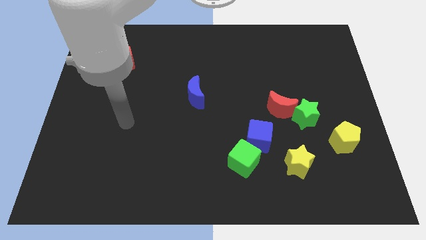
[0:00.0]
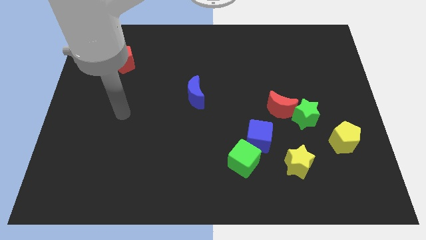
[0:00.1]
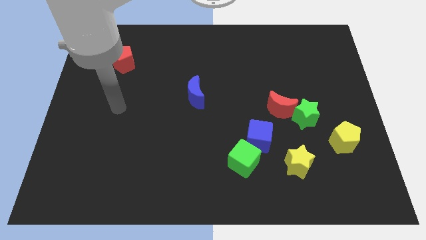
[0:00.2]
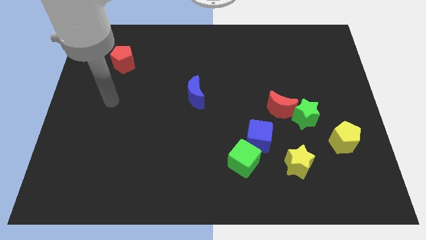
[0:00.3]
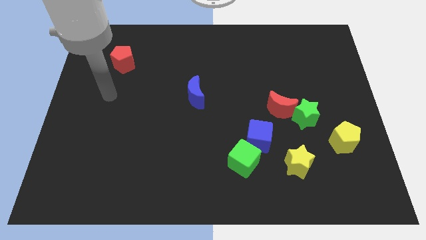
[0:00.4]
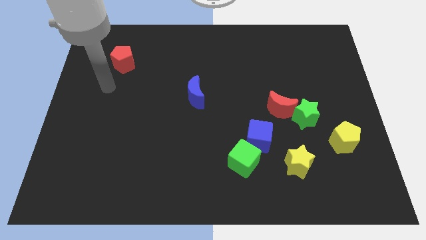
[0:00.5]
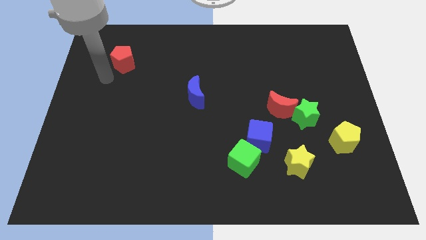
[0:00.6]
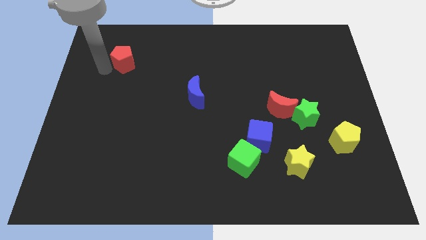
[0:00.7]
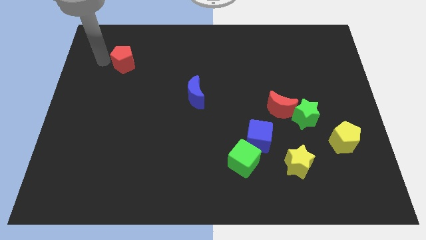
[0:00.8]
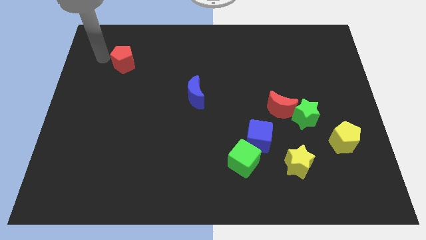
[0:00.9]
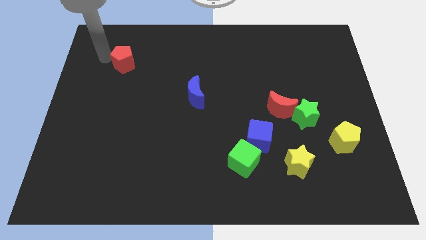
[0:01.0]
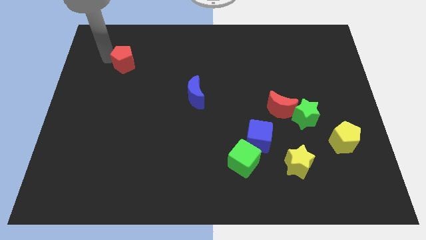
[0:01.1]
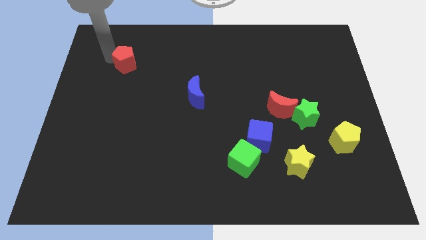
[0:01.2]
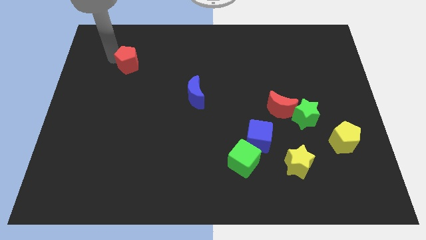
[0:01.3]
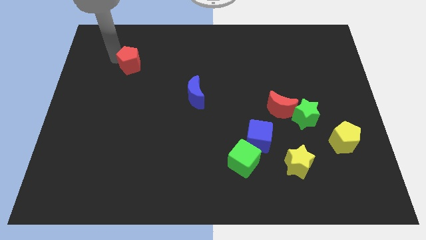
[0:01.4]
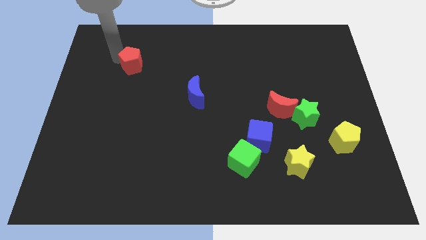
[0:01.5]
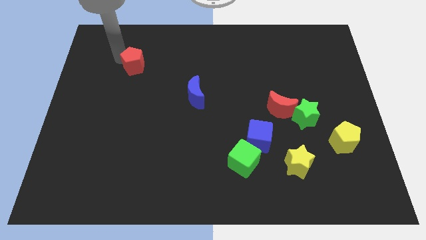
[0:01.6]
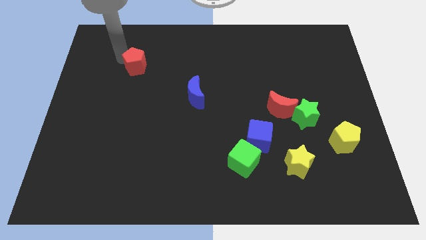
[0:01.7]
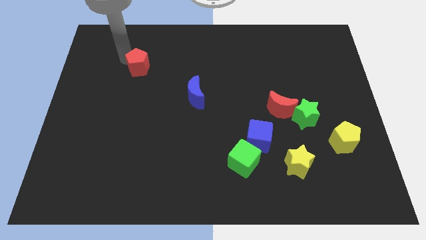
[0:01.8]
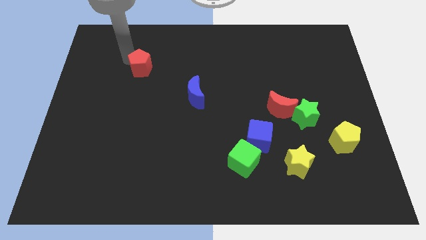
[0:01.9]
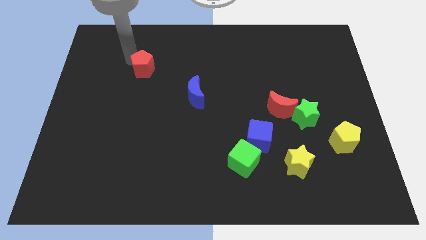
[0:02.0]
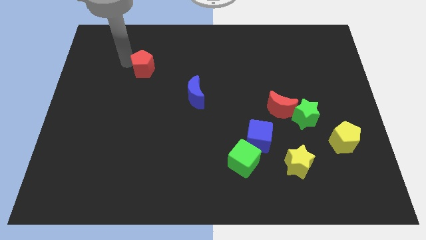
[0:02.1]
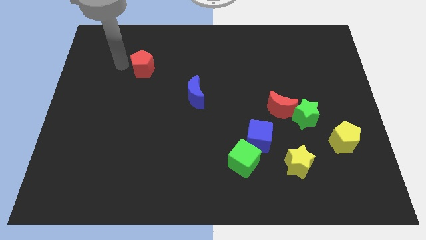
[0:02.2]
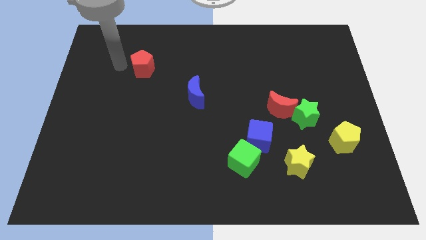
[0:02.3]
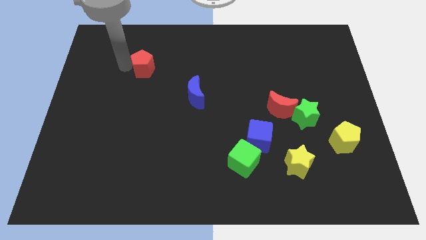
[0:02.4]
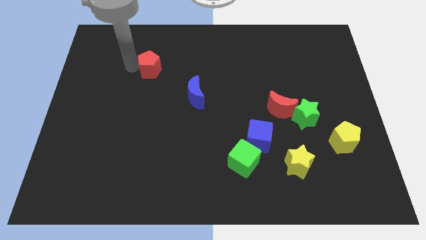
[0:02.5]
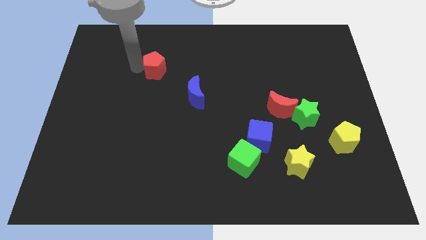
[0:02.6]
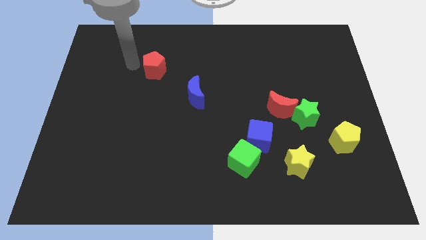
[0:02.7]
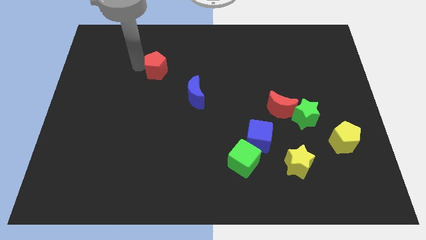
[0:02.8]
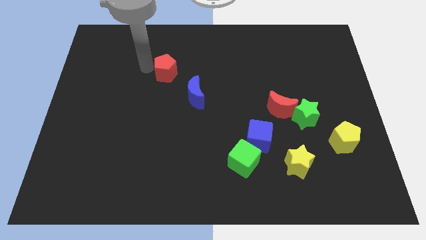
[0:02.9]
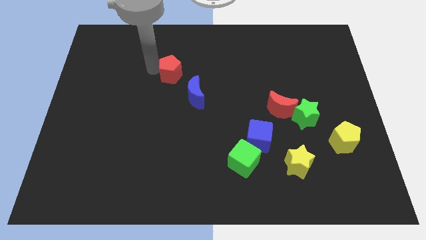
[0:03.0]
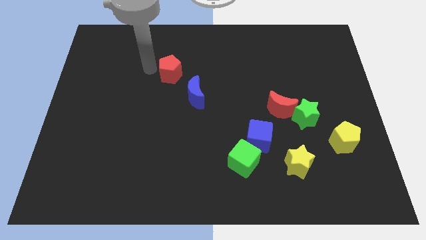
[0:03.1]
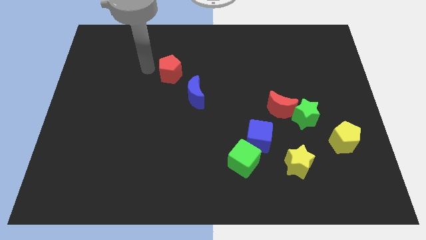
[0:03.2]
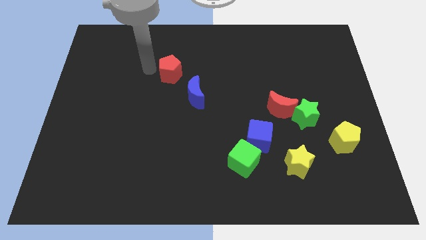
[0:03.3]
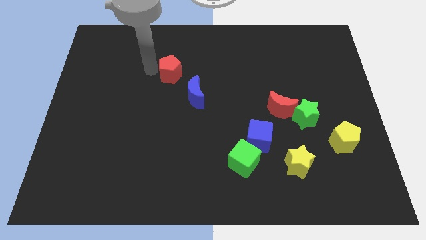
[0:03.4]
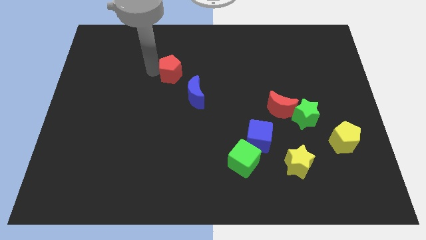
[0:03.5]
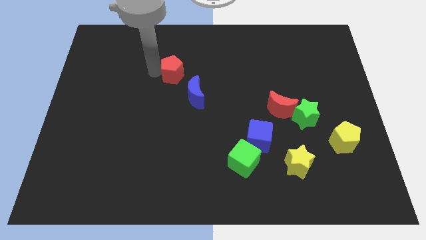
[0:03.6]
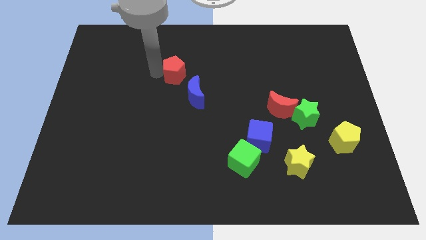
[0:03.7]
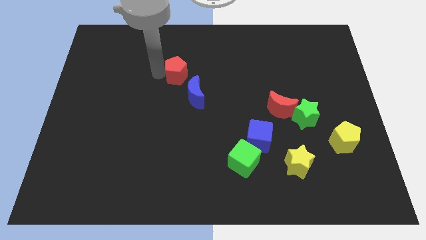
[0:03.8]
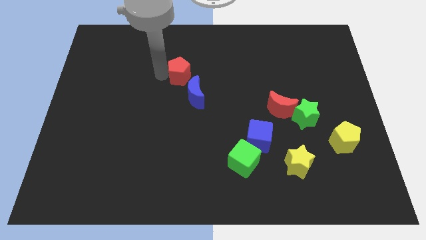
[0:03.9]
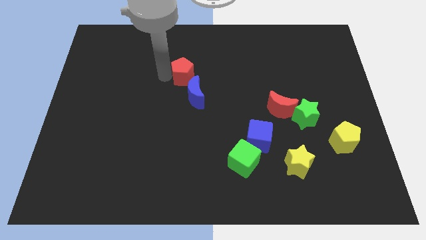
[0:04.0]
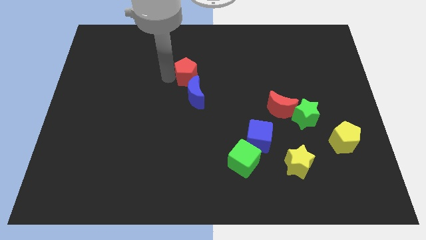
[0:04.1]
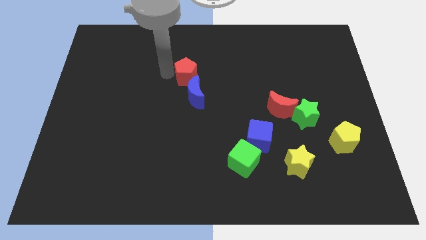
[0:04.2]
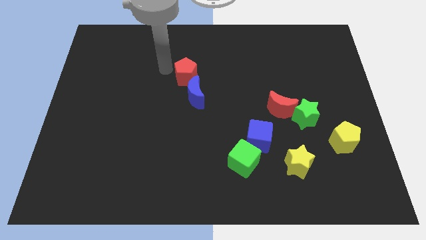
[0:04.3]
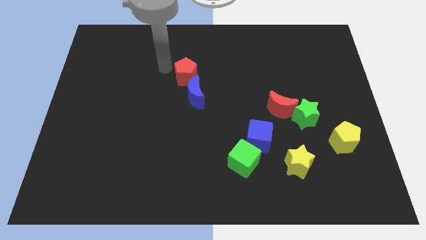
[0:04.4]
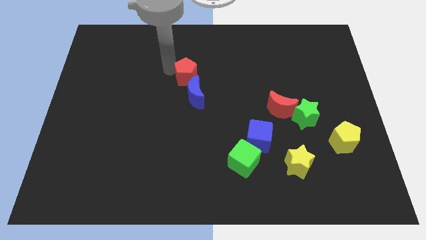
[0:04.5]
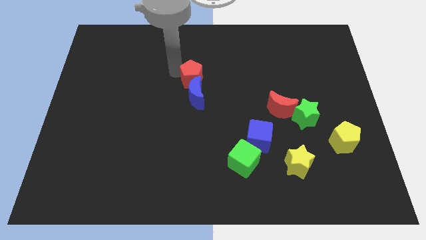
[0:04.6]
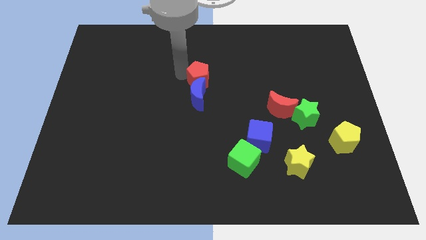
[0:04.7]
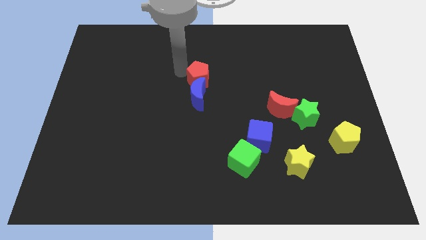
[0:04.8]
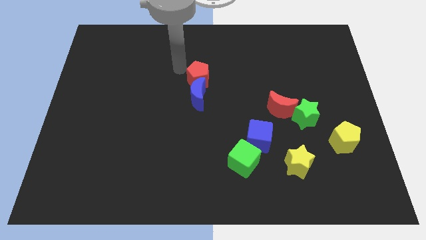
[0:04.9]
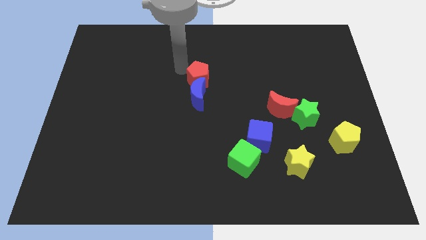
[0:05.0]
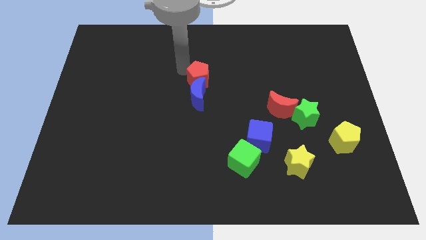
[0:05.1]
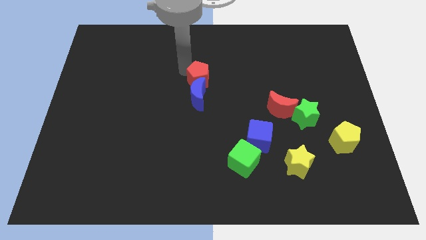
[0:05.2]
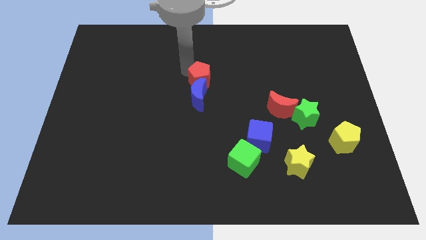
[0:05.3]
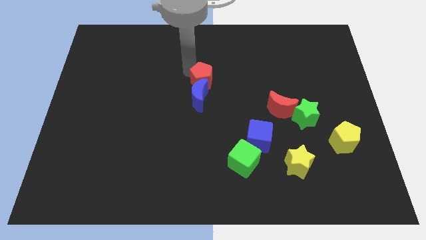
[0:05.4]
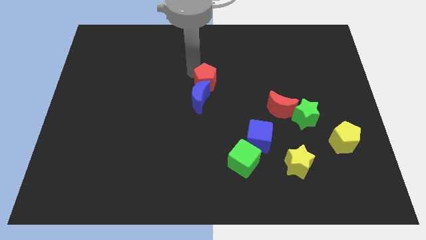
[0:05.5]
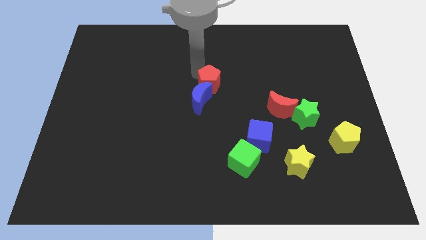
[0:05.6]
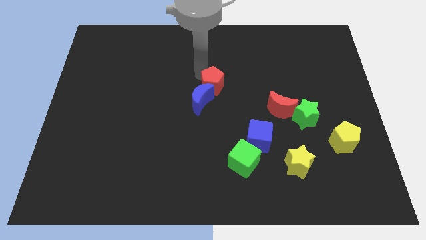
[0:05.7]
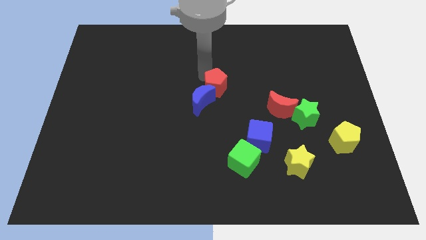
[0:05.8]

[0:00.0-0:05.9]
move the red pentagon to the right of the blue moon

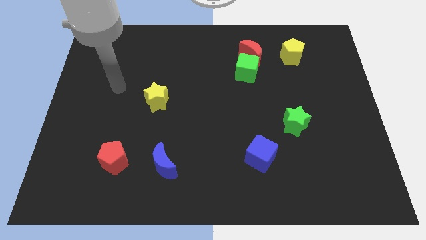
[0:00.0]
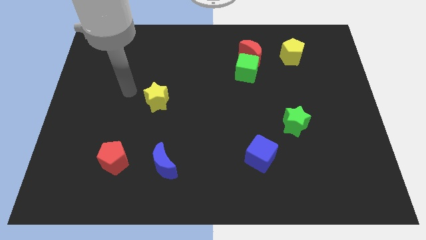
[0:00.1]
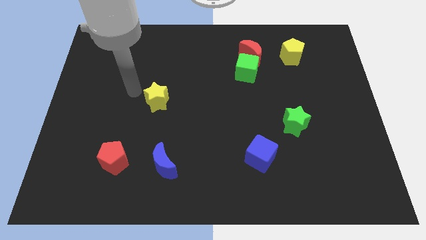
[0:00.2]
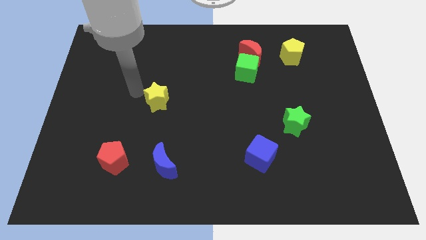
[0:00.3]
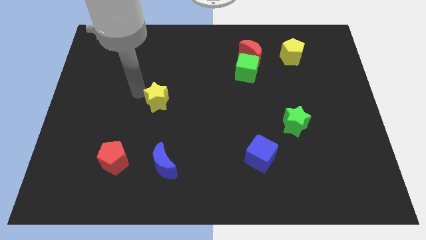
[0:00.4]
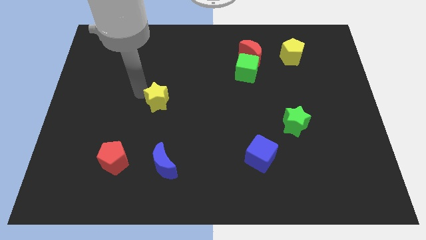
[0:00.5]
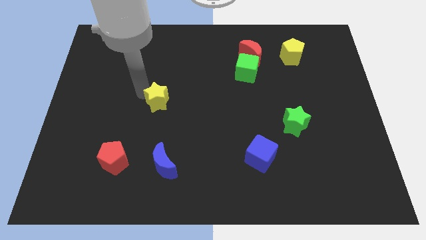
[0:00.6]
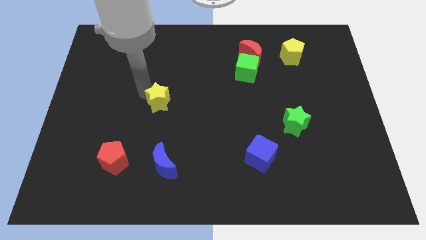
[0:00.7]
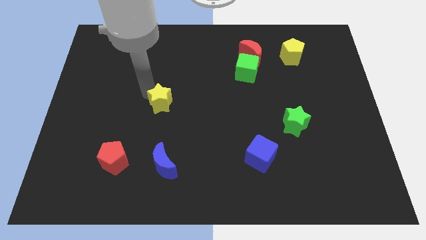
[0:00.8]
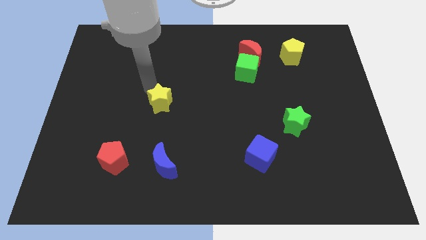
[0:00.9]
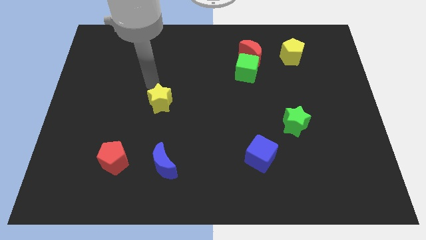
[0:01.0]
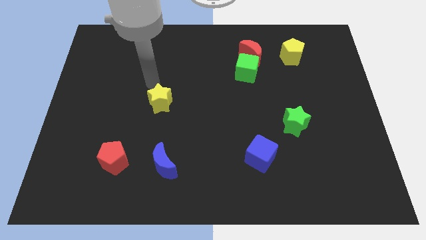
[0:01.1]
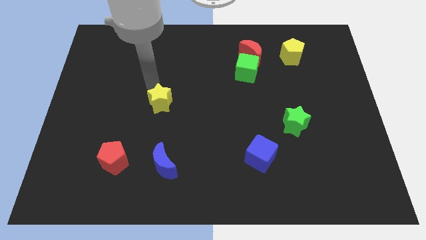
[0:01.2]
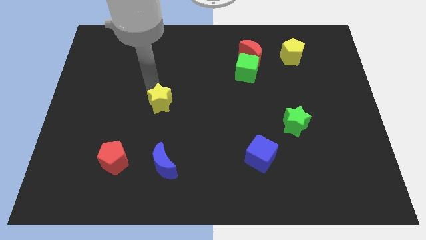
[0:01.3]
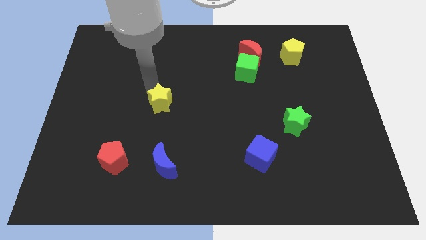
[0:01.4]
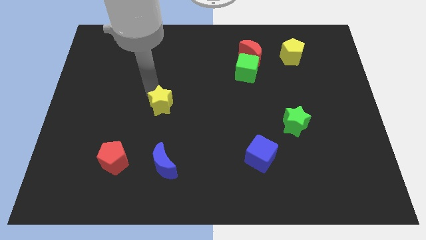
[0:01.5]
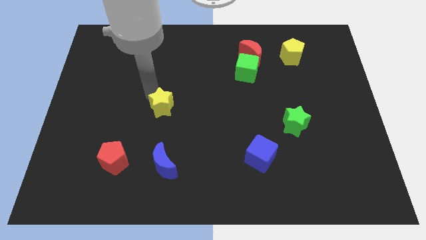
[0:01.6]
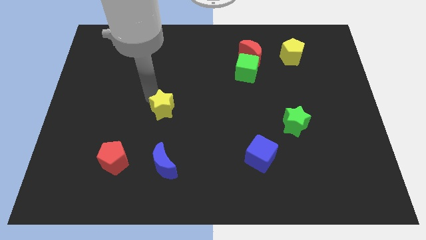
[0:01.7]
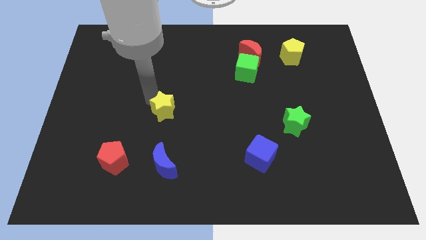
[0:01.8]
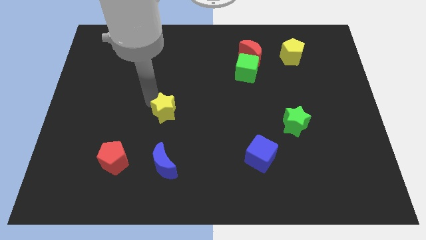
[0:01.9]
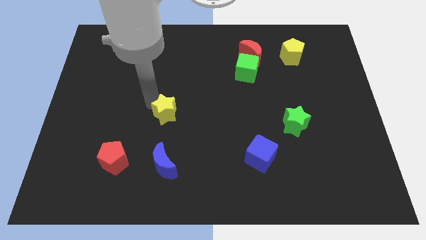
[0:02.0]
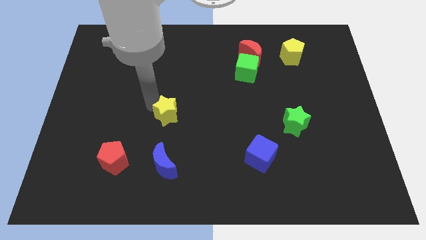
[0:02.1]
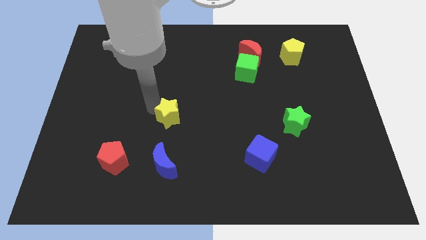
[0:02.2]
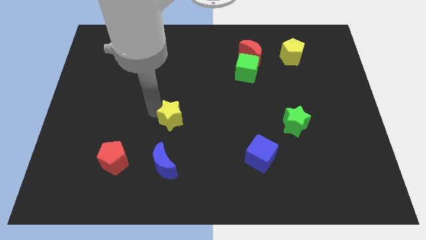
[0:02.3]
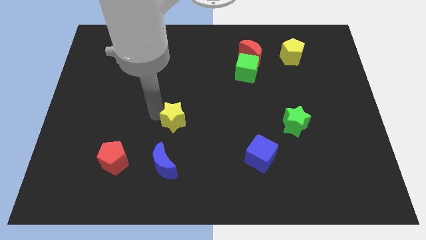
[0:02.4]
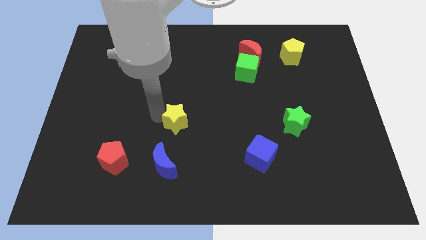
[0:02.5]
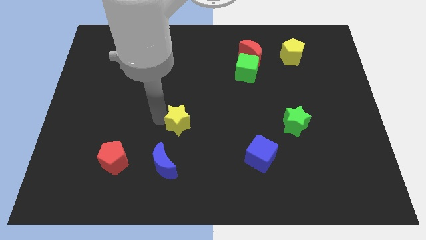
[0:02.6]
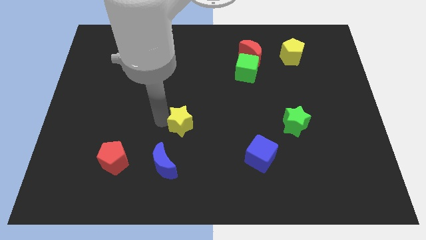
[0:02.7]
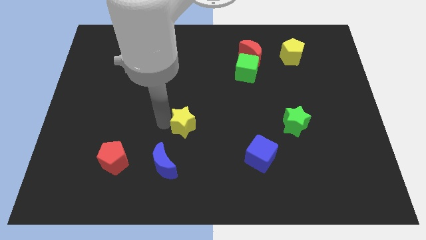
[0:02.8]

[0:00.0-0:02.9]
move the yellow star to the top right side of the blue moon
